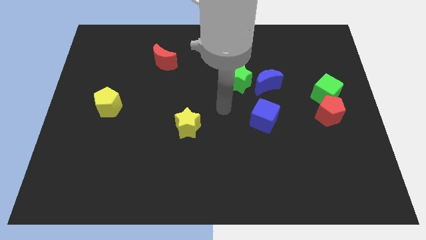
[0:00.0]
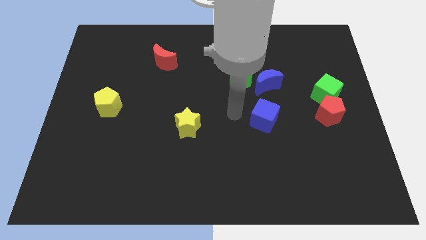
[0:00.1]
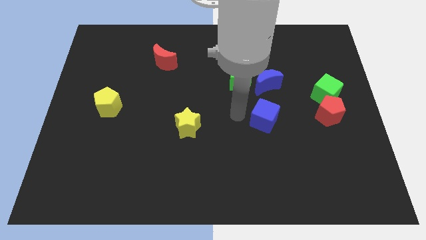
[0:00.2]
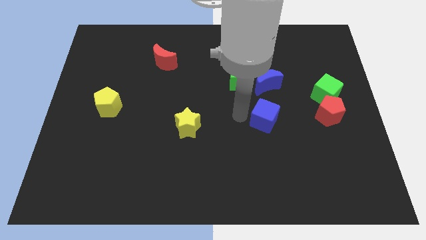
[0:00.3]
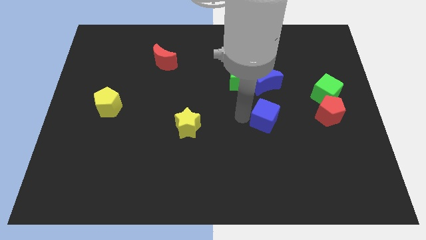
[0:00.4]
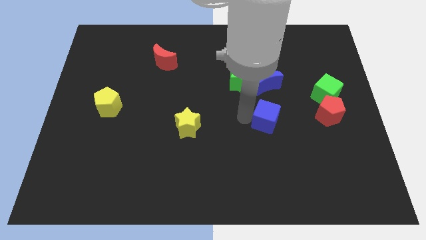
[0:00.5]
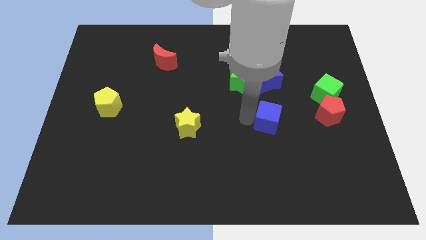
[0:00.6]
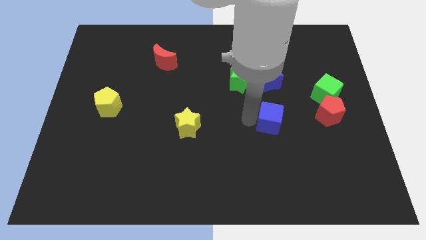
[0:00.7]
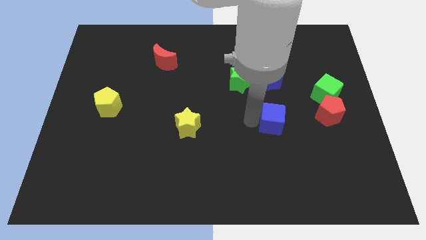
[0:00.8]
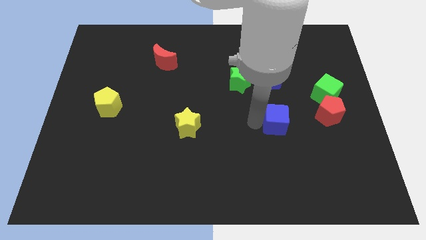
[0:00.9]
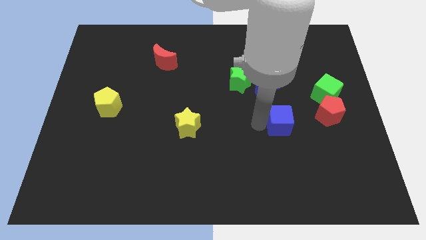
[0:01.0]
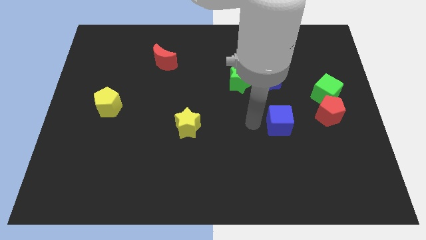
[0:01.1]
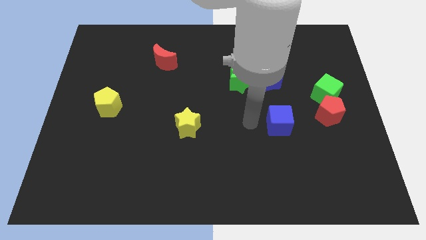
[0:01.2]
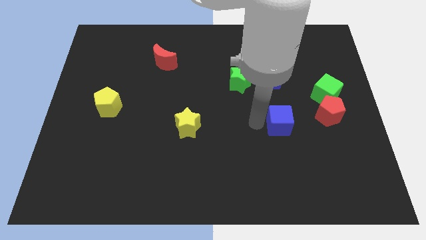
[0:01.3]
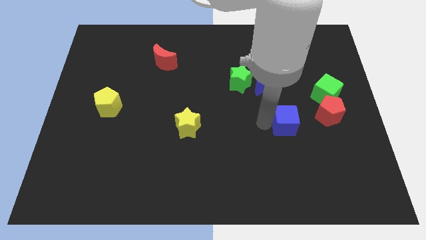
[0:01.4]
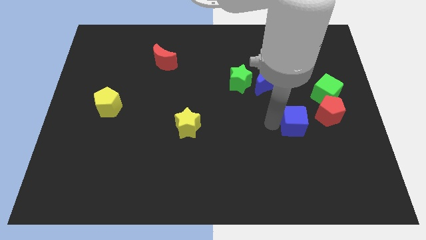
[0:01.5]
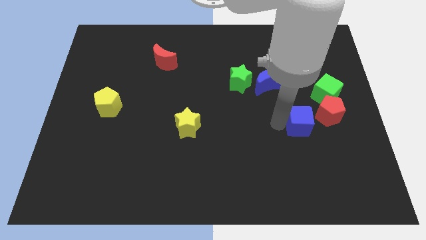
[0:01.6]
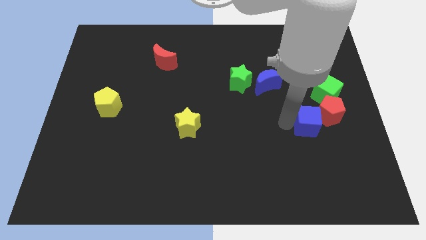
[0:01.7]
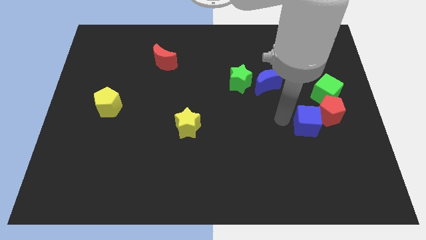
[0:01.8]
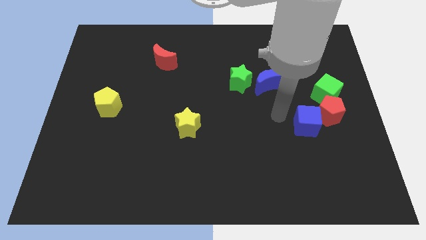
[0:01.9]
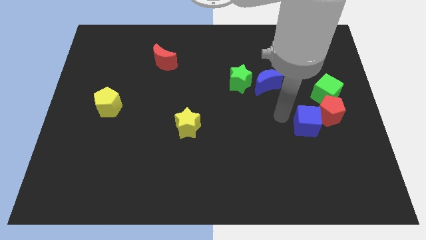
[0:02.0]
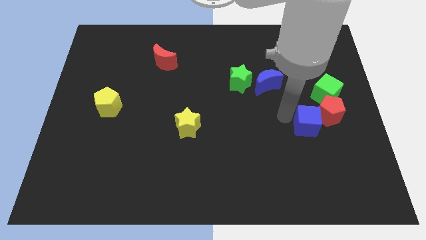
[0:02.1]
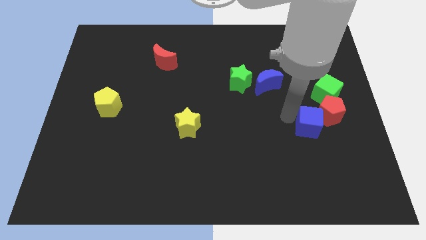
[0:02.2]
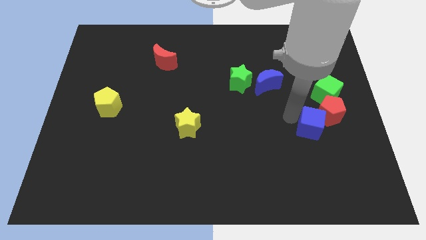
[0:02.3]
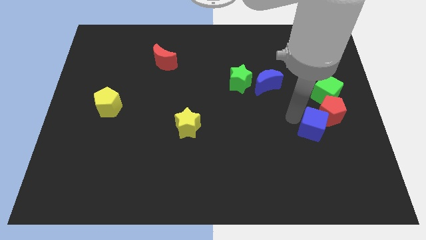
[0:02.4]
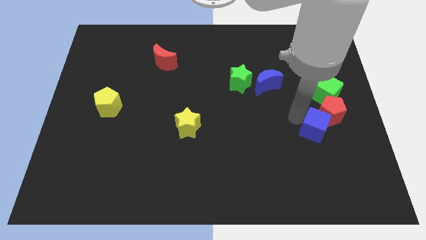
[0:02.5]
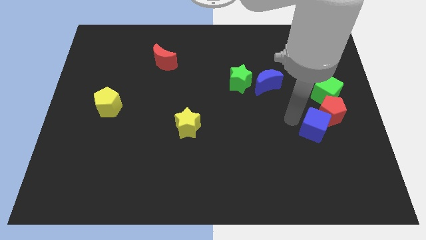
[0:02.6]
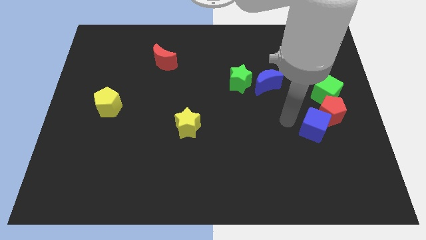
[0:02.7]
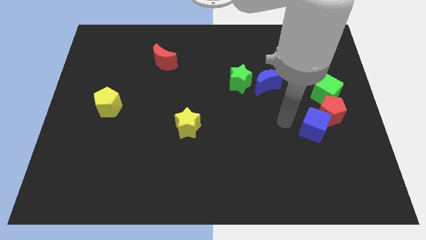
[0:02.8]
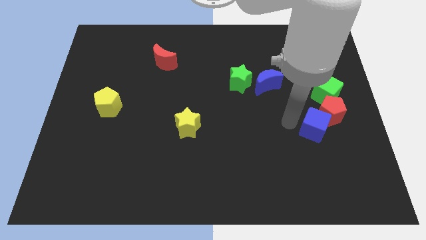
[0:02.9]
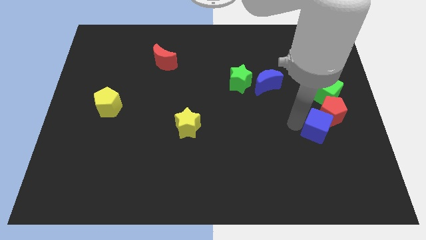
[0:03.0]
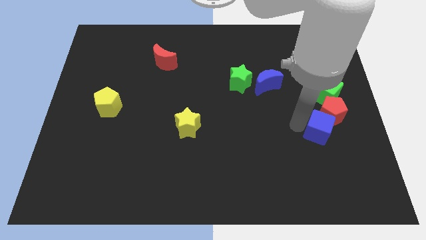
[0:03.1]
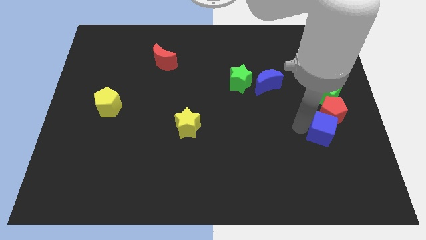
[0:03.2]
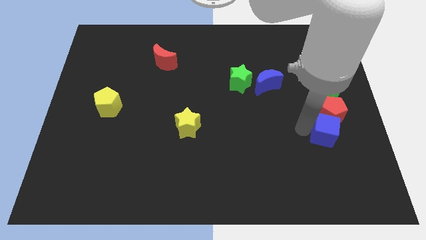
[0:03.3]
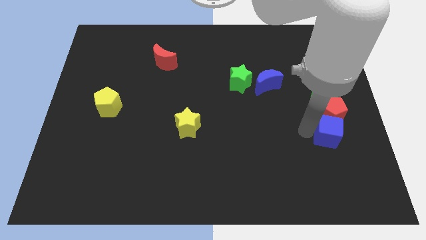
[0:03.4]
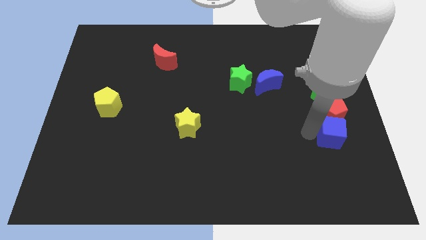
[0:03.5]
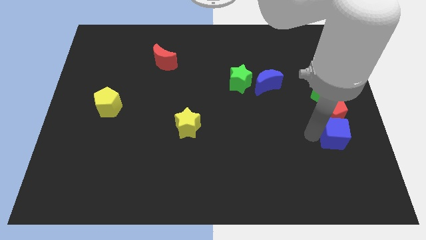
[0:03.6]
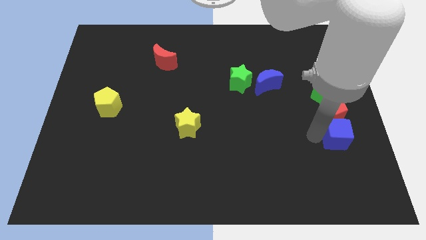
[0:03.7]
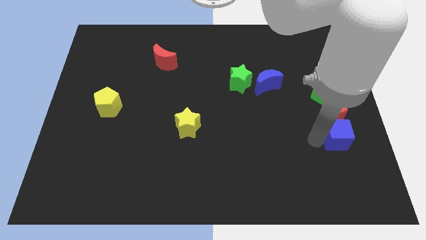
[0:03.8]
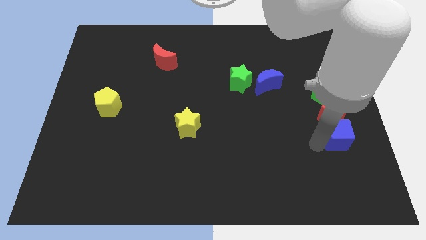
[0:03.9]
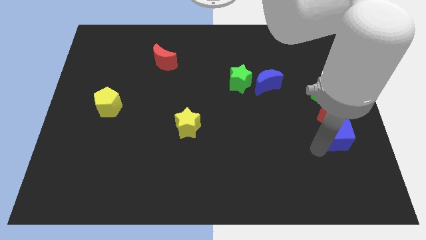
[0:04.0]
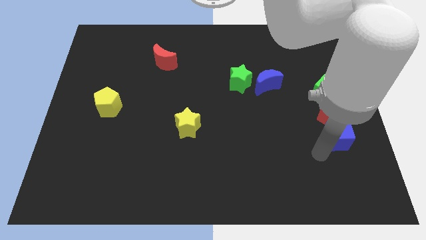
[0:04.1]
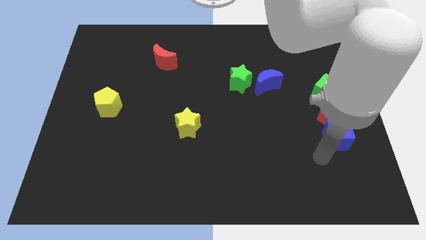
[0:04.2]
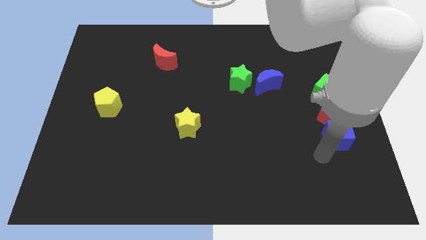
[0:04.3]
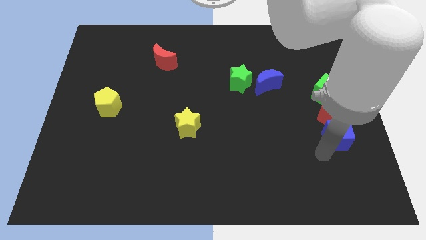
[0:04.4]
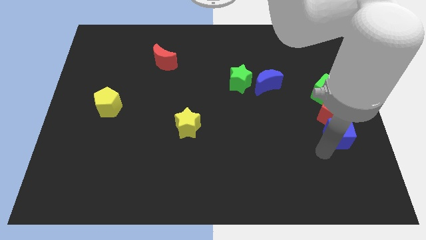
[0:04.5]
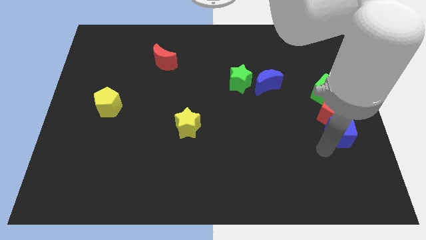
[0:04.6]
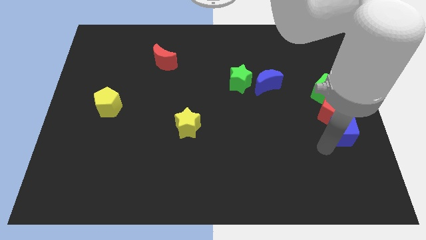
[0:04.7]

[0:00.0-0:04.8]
push the blue cube to the center right

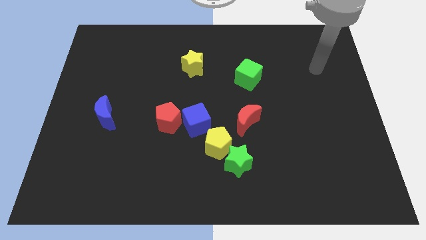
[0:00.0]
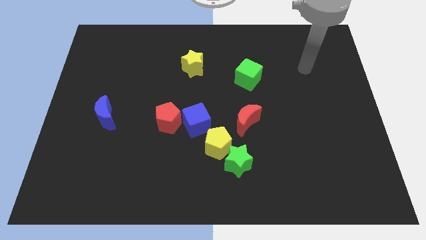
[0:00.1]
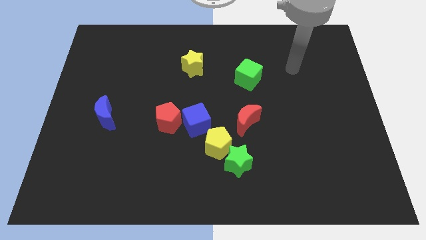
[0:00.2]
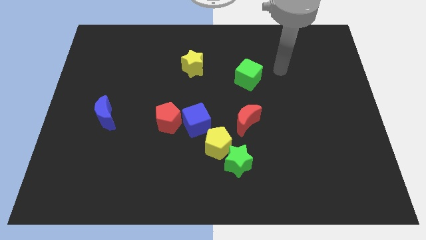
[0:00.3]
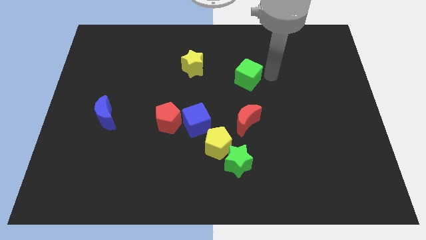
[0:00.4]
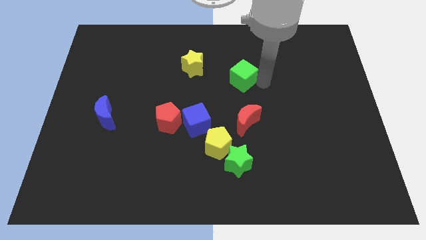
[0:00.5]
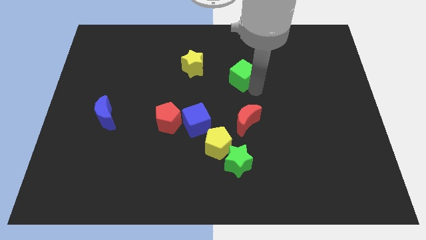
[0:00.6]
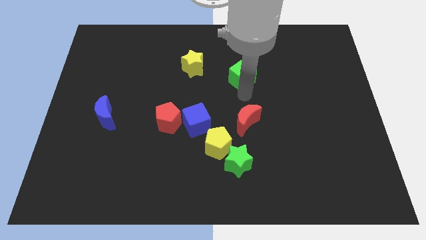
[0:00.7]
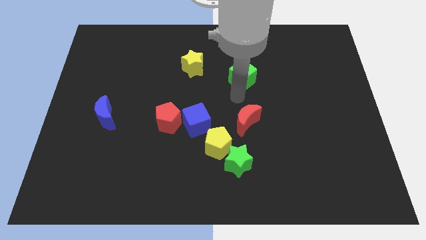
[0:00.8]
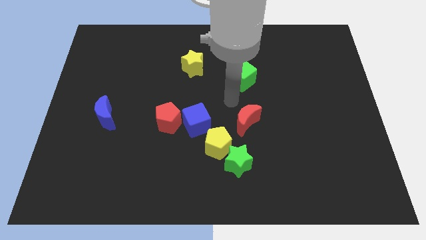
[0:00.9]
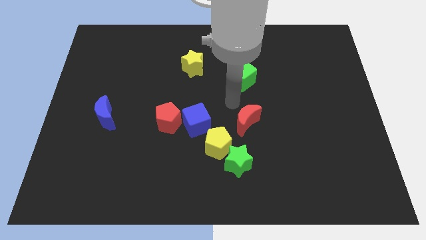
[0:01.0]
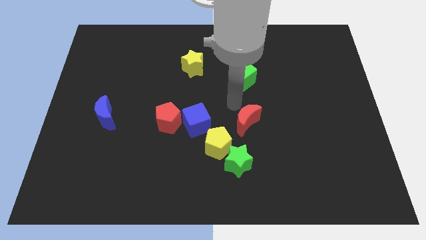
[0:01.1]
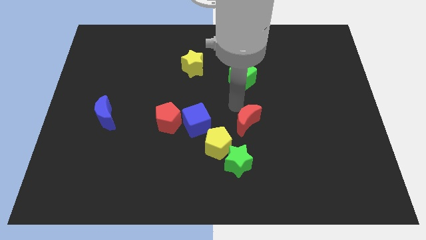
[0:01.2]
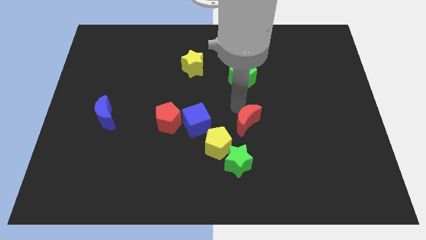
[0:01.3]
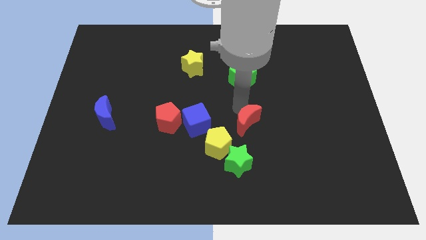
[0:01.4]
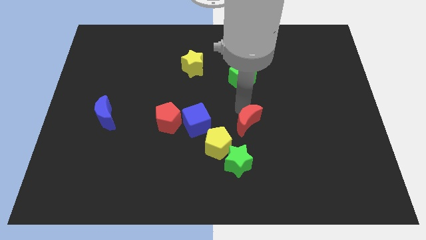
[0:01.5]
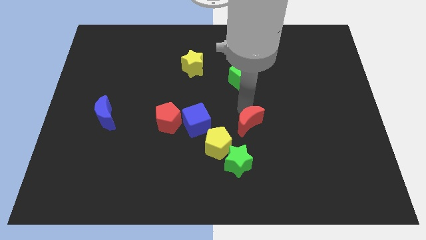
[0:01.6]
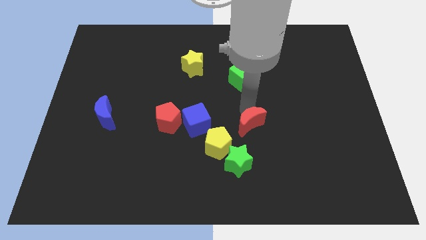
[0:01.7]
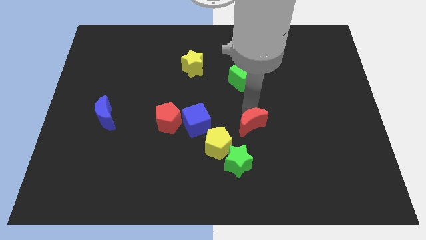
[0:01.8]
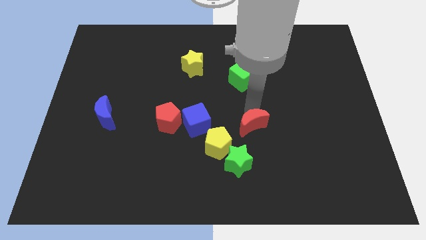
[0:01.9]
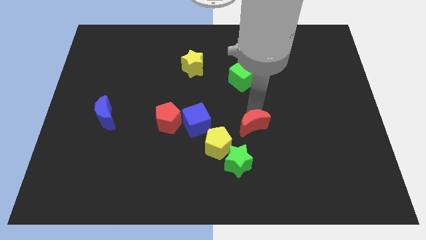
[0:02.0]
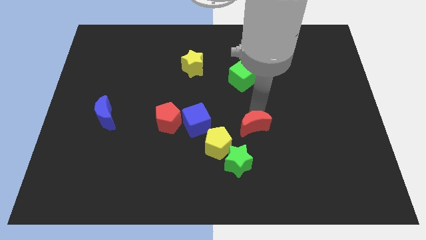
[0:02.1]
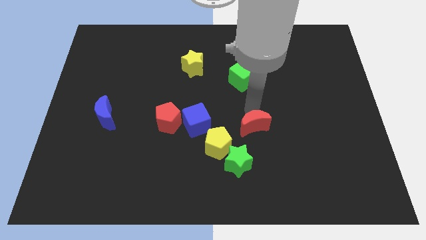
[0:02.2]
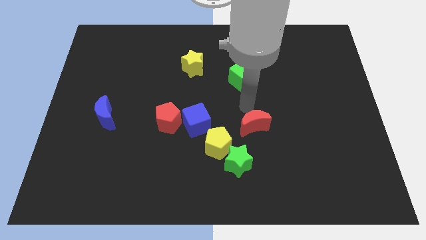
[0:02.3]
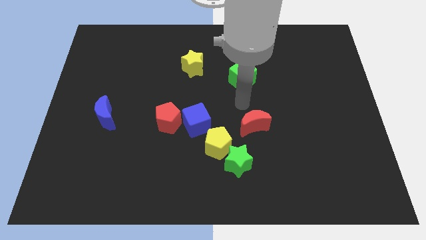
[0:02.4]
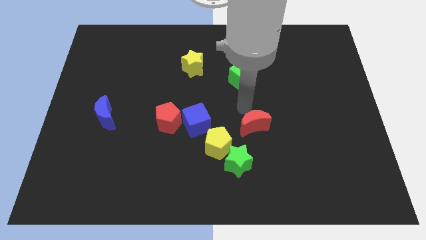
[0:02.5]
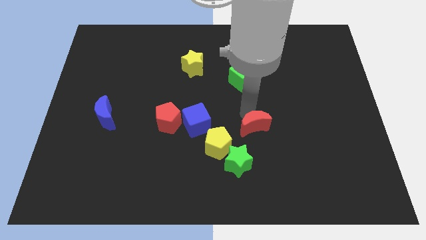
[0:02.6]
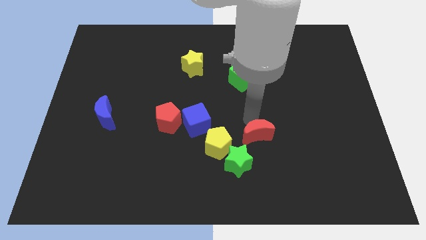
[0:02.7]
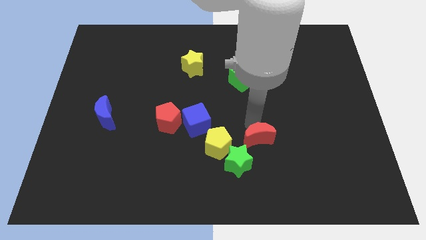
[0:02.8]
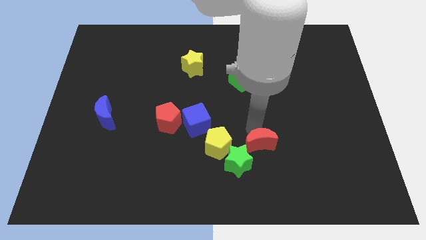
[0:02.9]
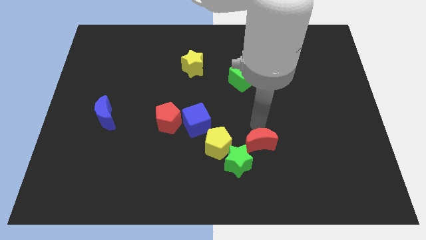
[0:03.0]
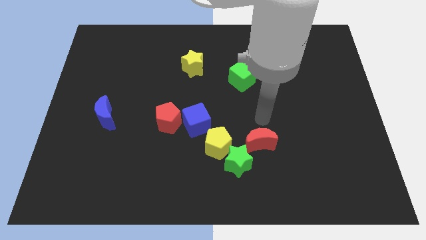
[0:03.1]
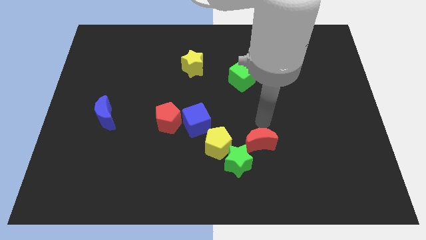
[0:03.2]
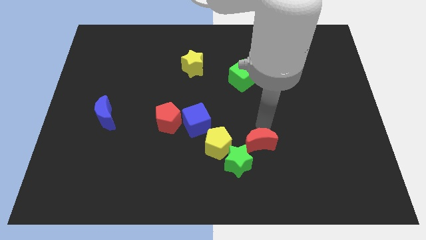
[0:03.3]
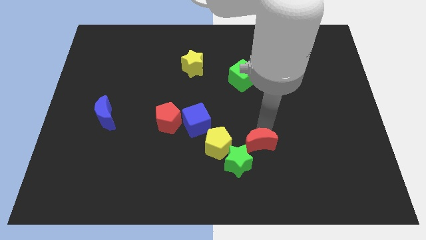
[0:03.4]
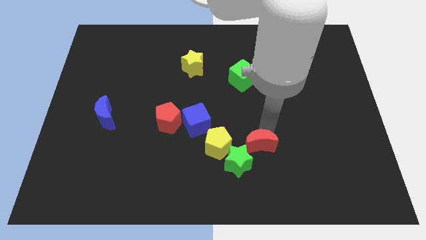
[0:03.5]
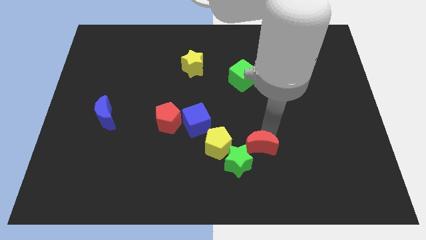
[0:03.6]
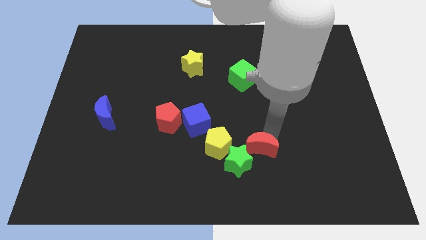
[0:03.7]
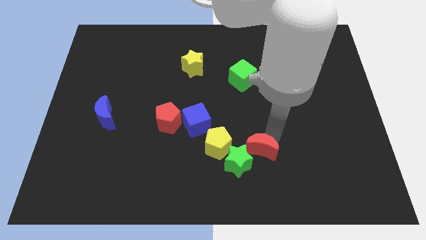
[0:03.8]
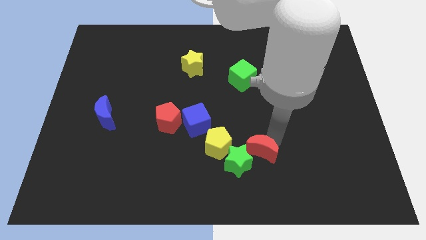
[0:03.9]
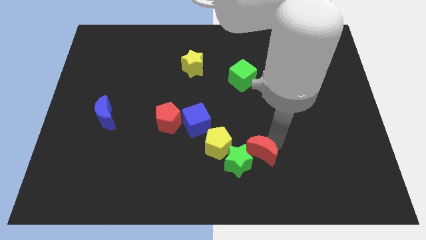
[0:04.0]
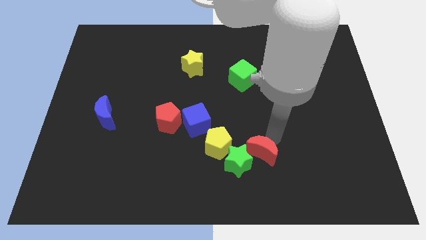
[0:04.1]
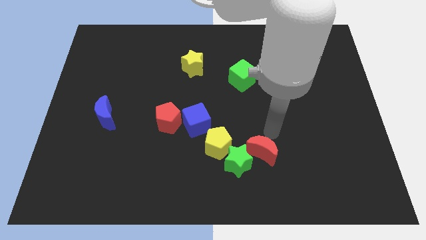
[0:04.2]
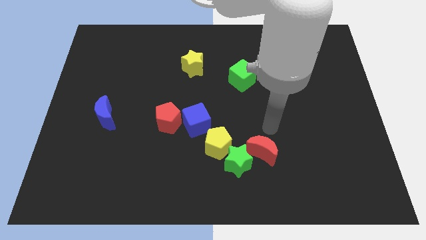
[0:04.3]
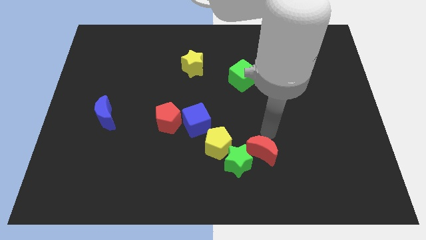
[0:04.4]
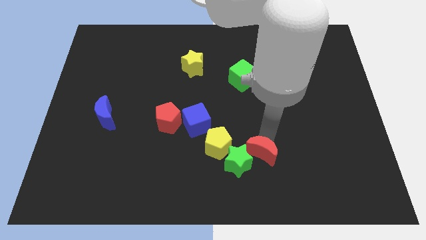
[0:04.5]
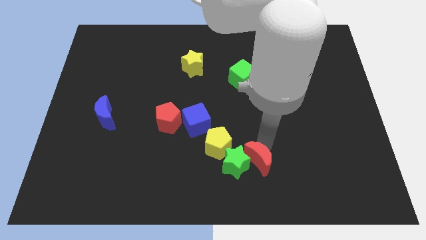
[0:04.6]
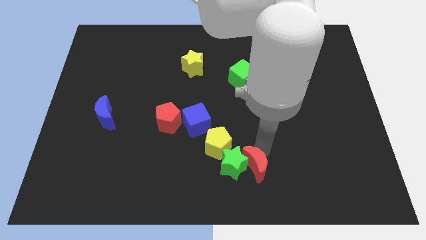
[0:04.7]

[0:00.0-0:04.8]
push the red moon to the bottom
